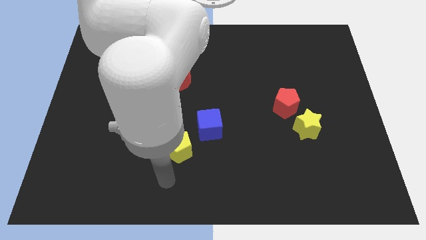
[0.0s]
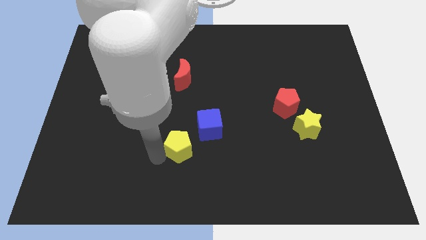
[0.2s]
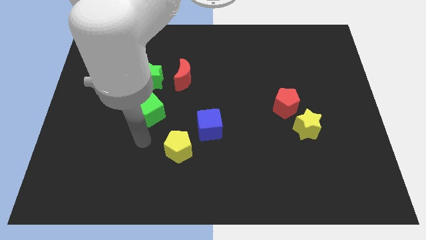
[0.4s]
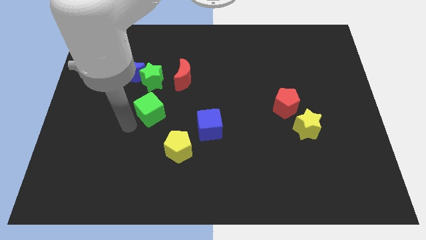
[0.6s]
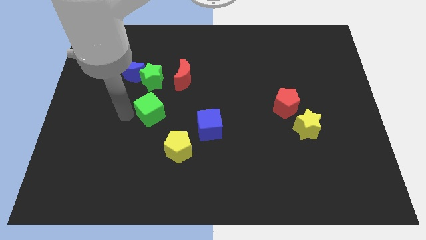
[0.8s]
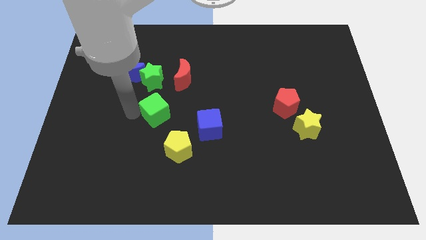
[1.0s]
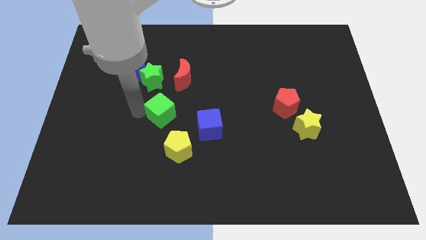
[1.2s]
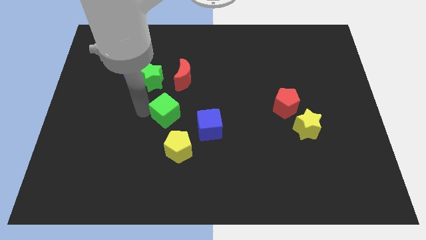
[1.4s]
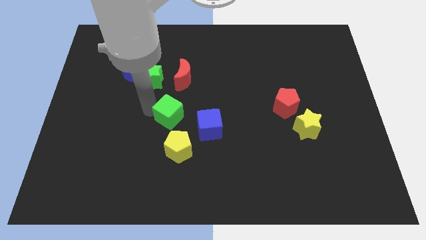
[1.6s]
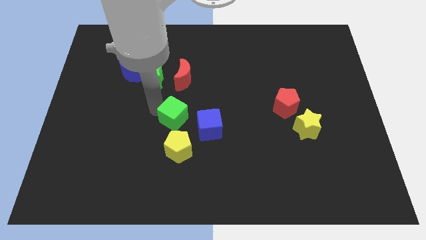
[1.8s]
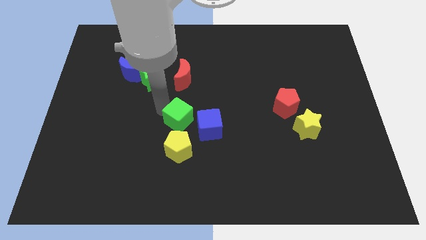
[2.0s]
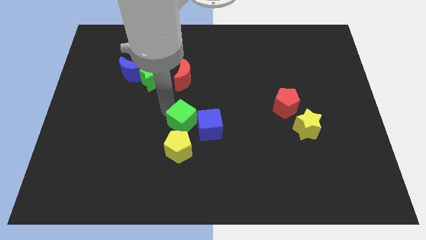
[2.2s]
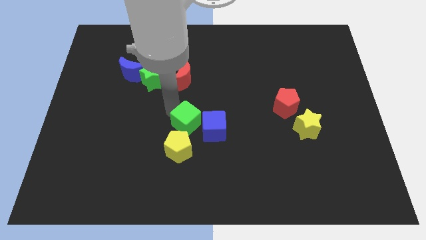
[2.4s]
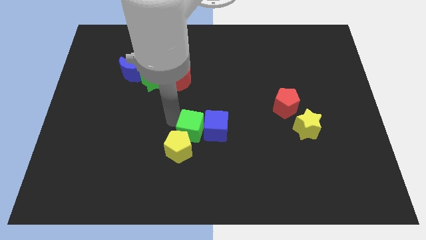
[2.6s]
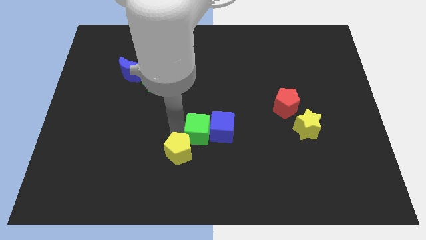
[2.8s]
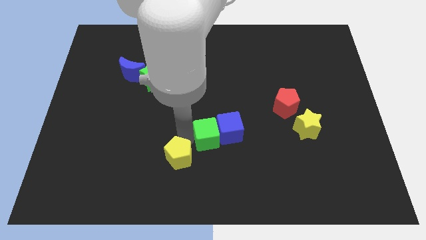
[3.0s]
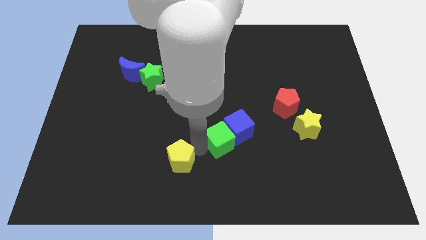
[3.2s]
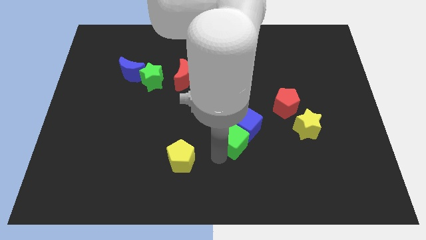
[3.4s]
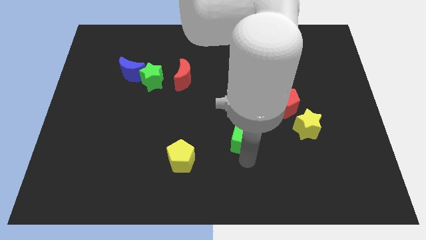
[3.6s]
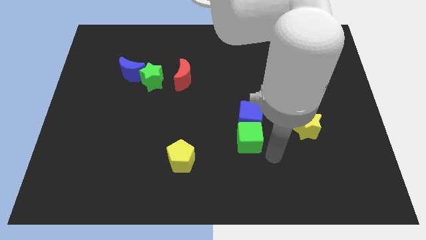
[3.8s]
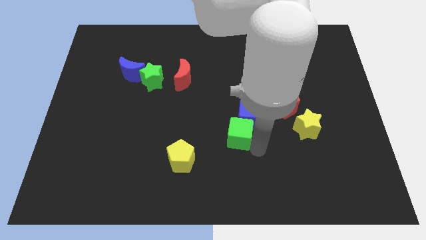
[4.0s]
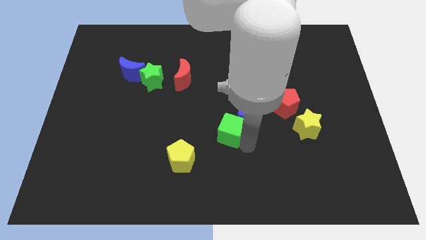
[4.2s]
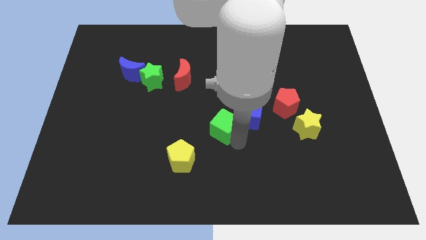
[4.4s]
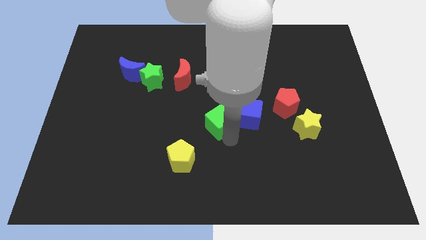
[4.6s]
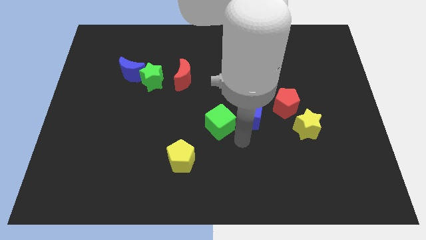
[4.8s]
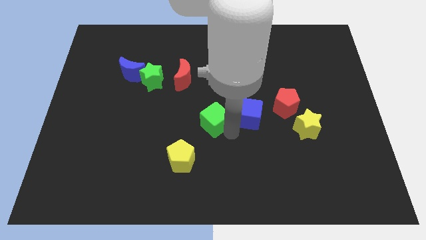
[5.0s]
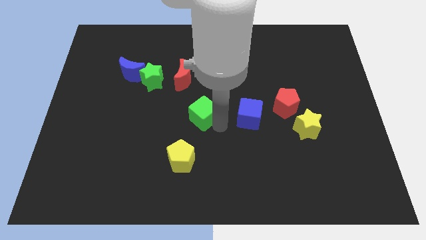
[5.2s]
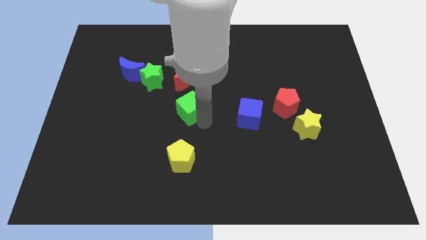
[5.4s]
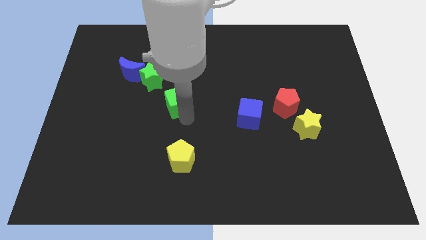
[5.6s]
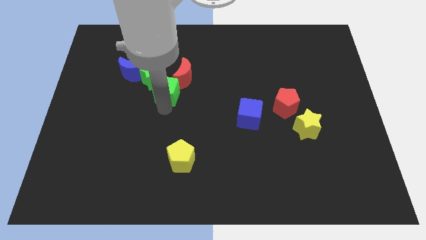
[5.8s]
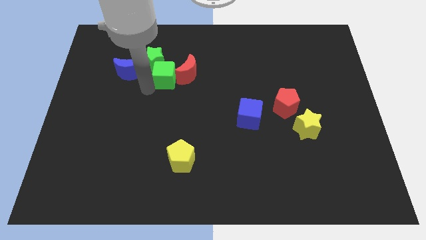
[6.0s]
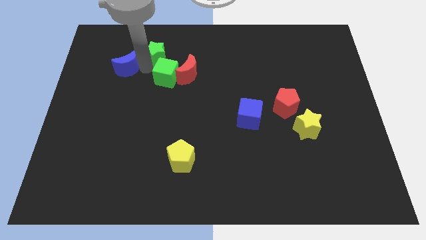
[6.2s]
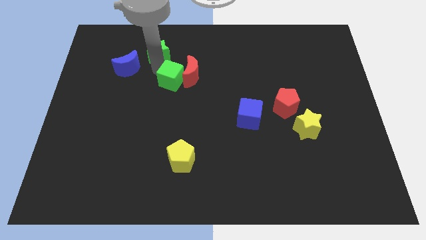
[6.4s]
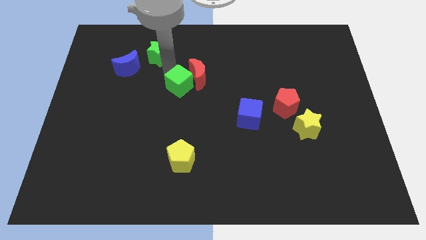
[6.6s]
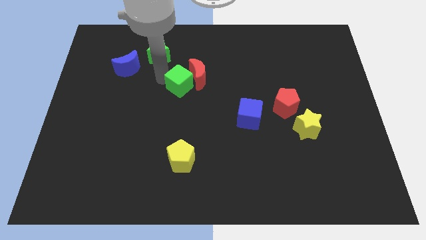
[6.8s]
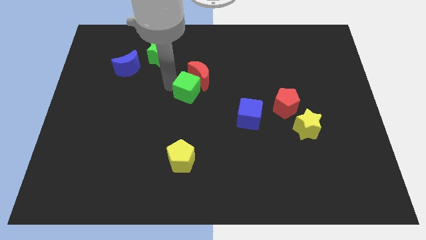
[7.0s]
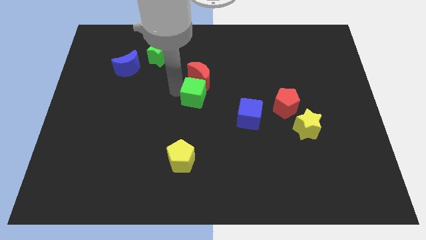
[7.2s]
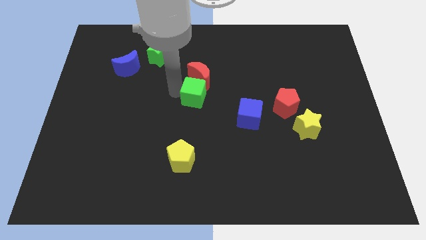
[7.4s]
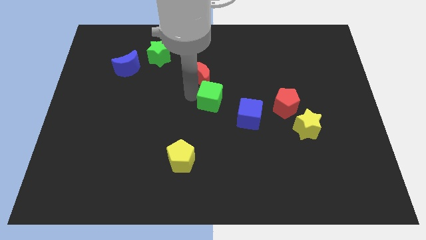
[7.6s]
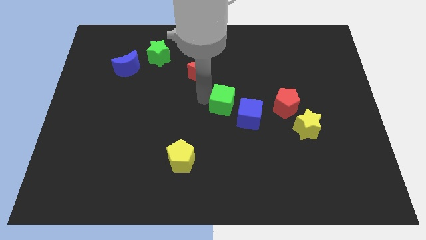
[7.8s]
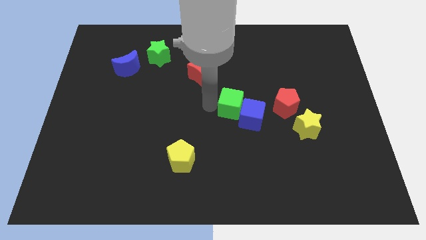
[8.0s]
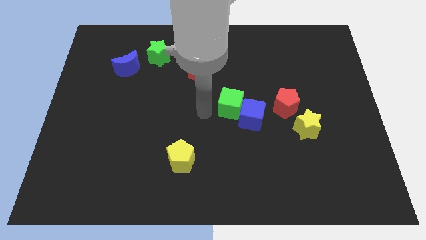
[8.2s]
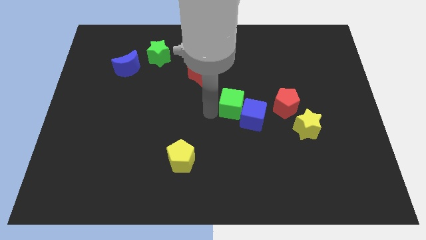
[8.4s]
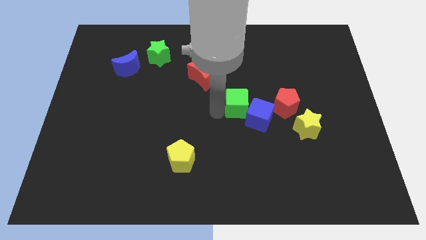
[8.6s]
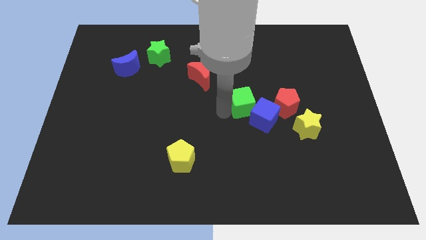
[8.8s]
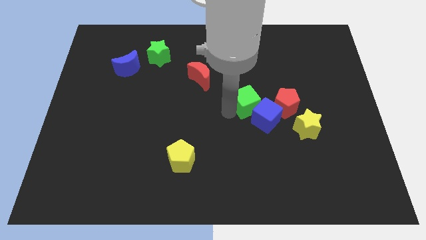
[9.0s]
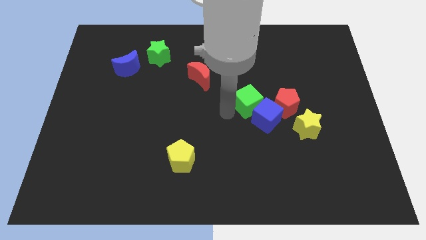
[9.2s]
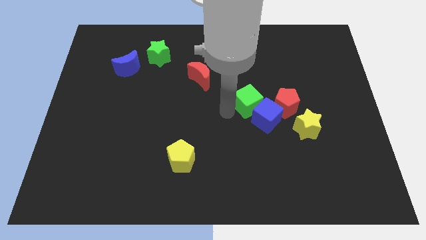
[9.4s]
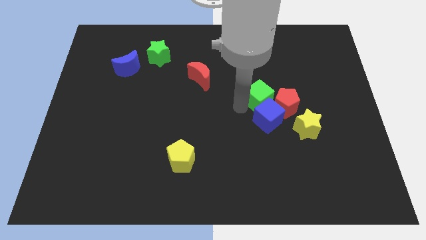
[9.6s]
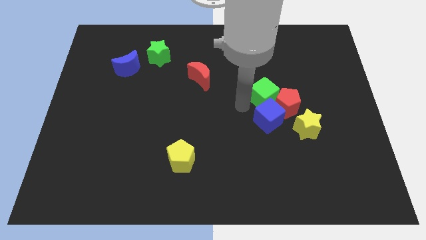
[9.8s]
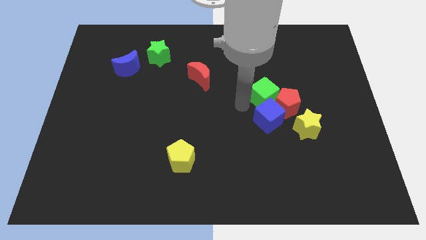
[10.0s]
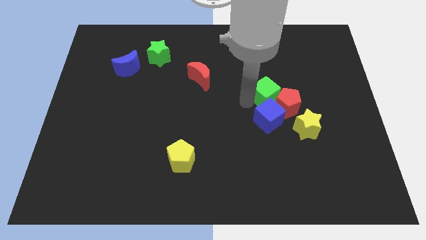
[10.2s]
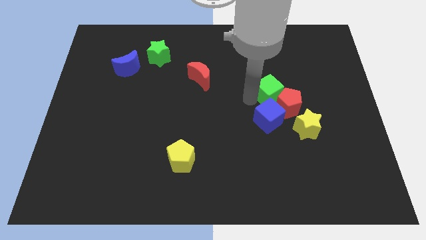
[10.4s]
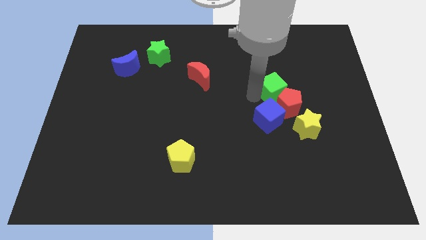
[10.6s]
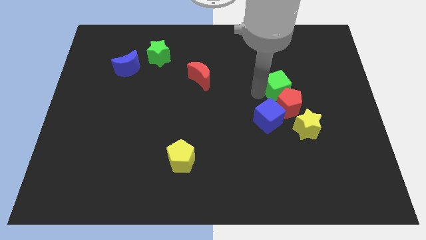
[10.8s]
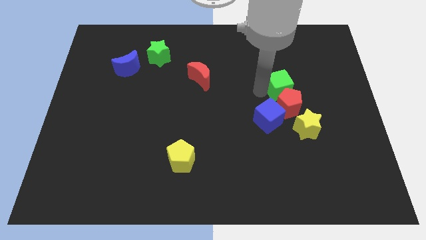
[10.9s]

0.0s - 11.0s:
move the green cube to the top of the yellow star

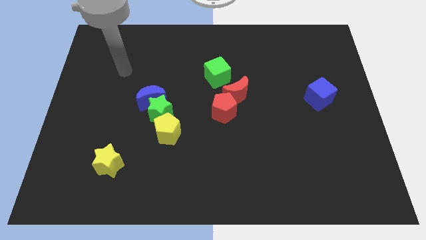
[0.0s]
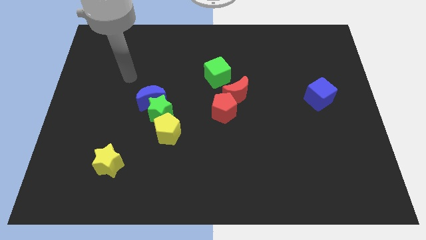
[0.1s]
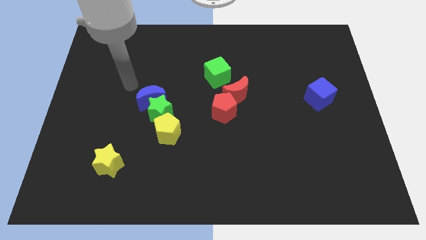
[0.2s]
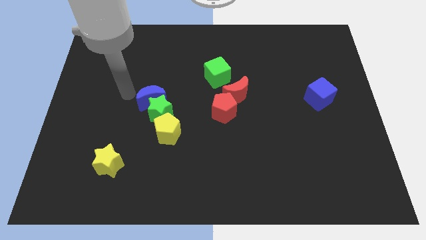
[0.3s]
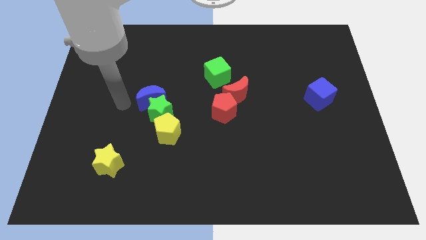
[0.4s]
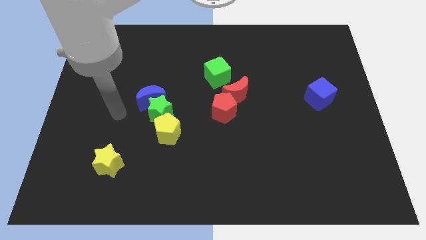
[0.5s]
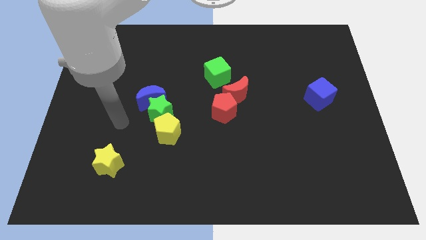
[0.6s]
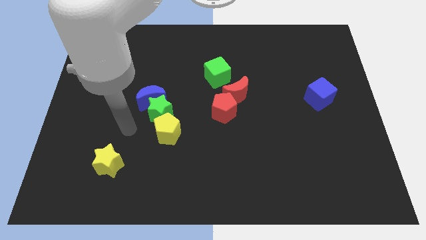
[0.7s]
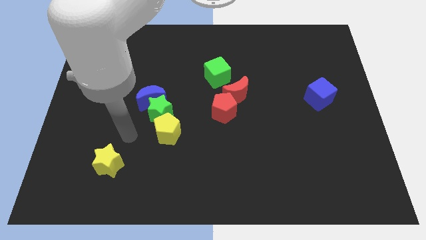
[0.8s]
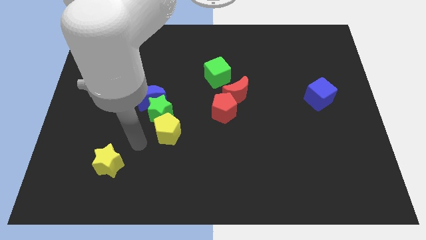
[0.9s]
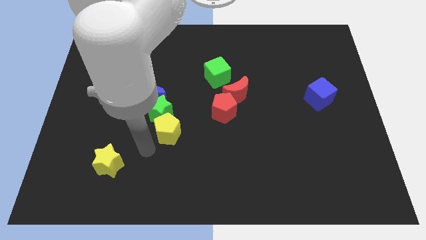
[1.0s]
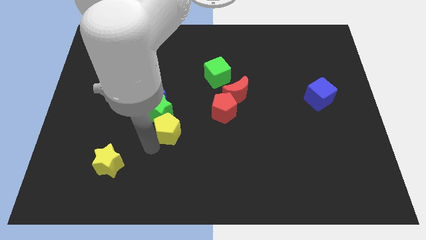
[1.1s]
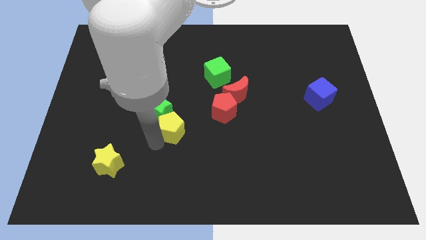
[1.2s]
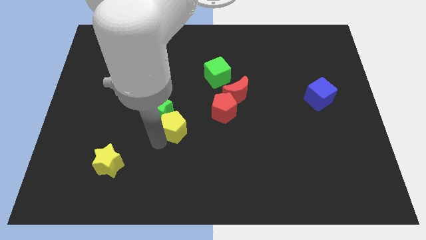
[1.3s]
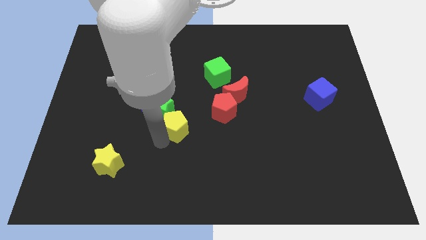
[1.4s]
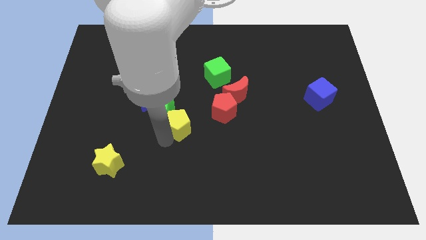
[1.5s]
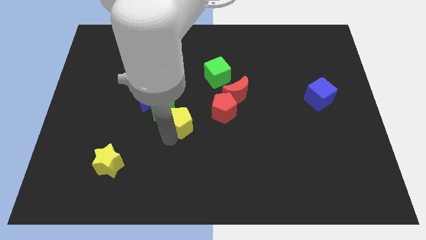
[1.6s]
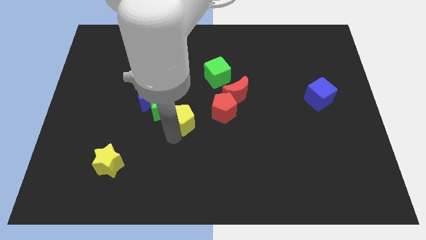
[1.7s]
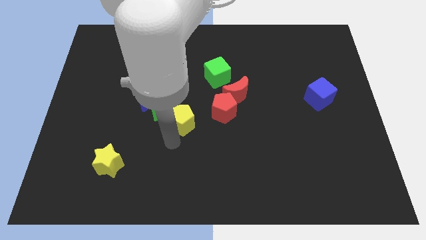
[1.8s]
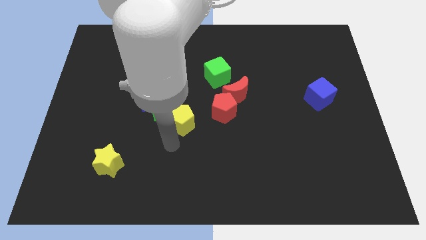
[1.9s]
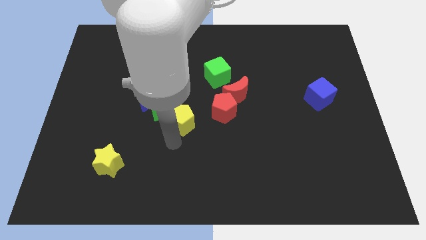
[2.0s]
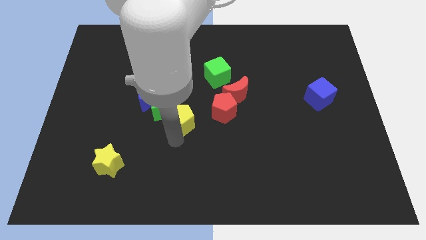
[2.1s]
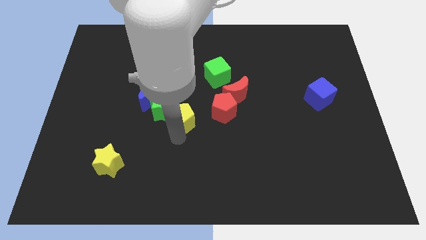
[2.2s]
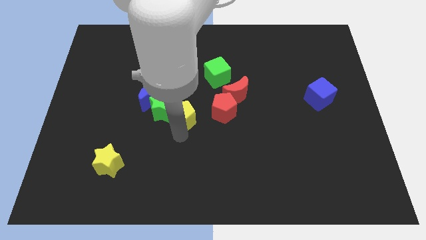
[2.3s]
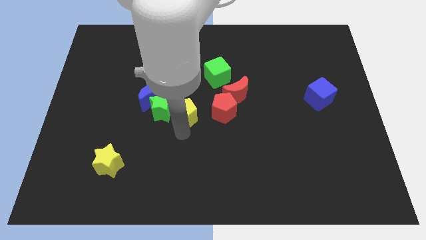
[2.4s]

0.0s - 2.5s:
push the yellow pentagon just right of the blue moon

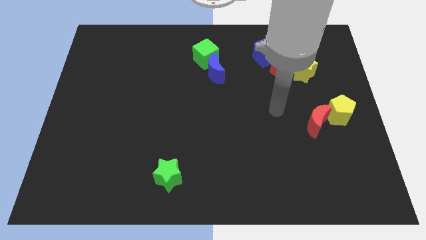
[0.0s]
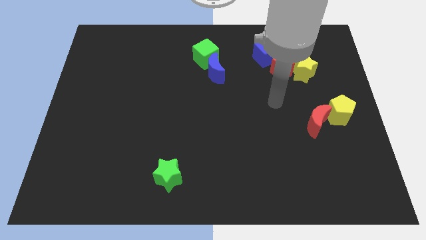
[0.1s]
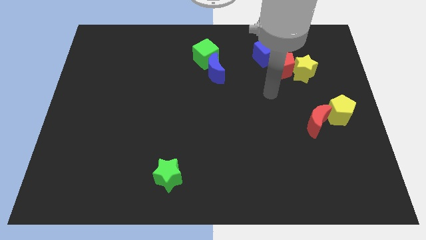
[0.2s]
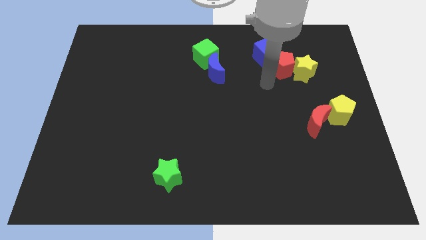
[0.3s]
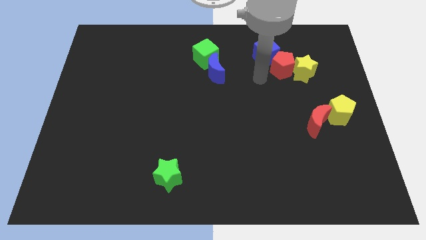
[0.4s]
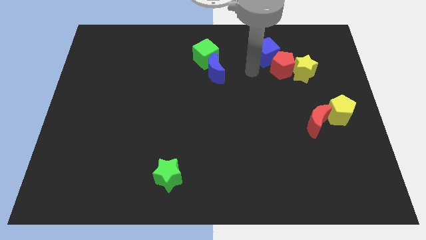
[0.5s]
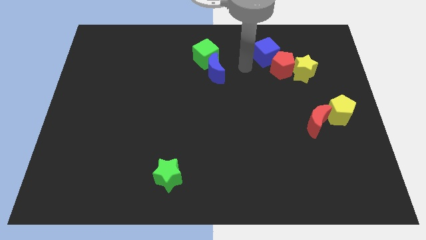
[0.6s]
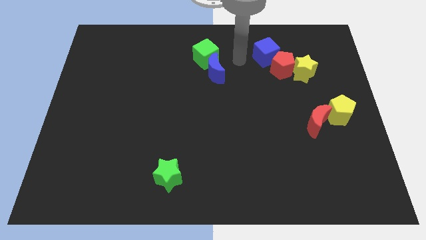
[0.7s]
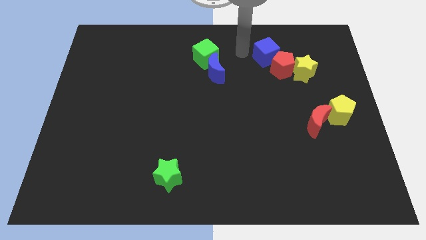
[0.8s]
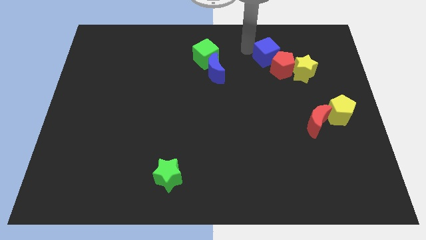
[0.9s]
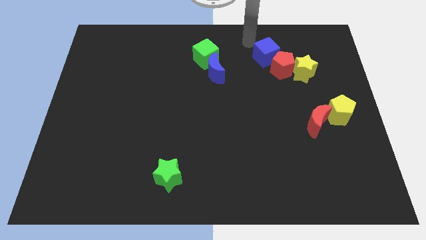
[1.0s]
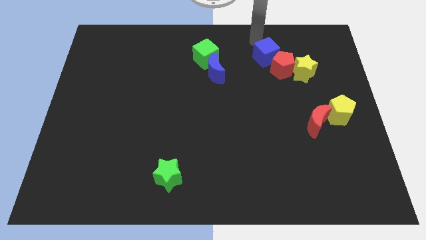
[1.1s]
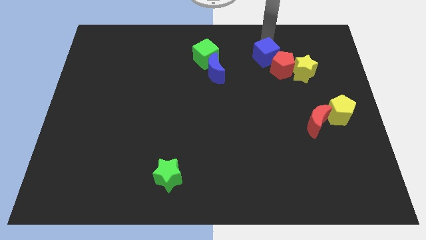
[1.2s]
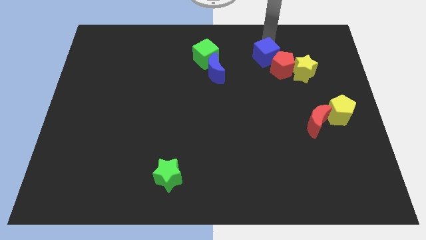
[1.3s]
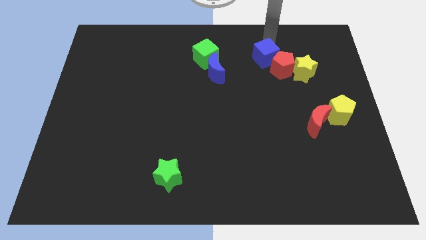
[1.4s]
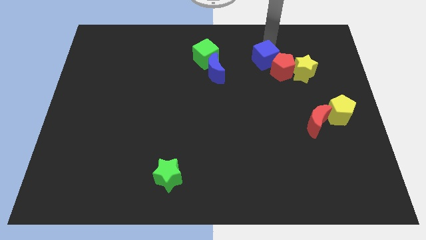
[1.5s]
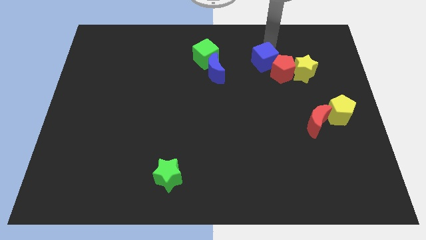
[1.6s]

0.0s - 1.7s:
push the blue cube left of the yellow star
